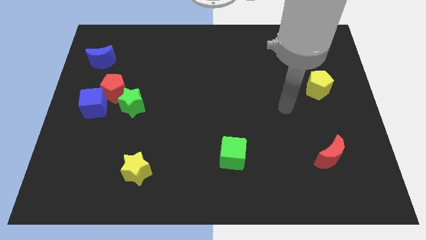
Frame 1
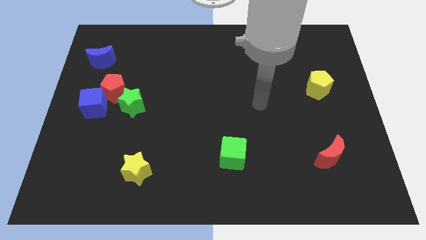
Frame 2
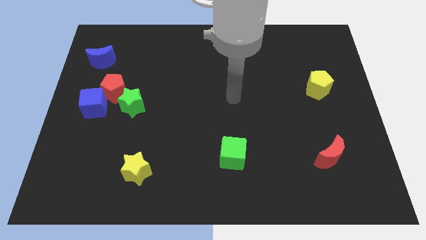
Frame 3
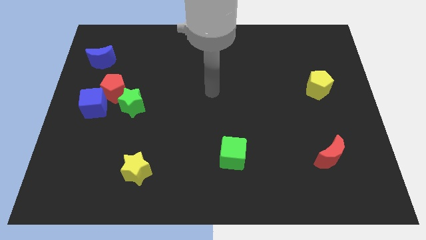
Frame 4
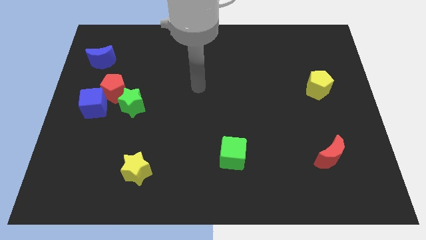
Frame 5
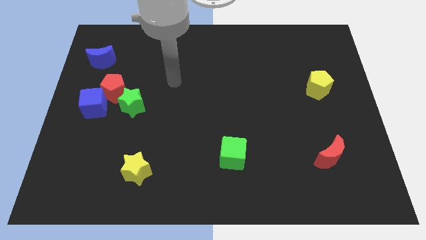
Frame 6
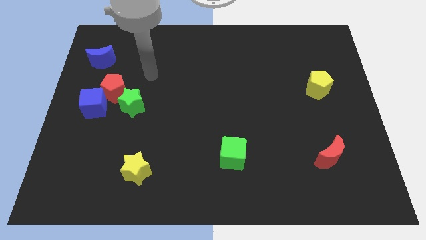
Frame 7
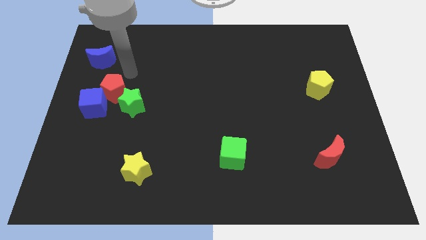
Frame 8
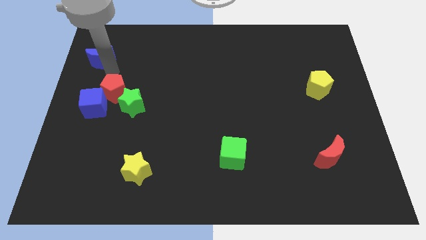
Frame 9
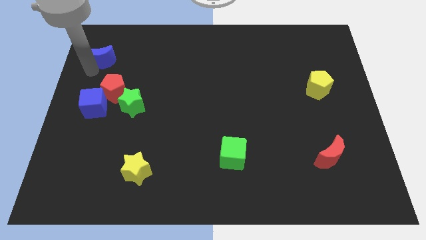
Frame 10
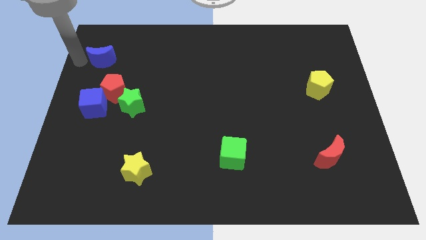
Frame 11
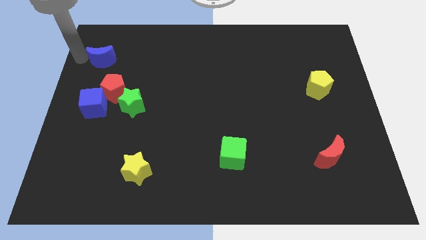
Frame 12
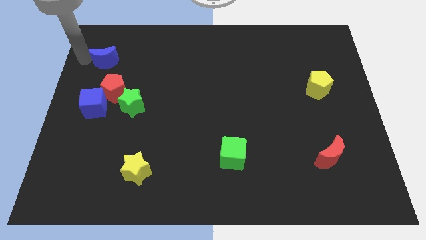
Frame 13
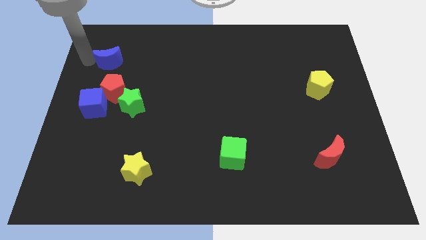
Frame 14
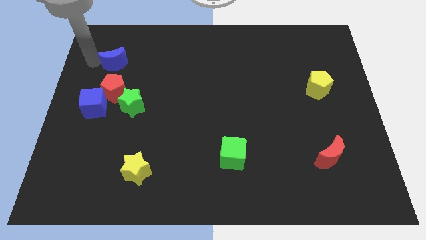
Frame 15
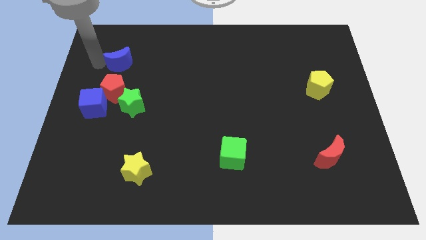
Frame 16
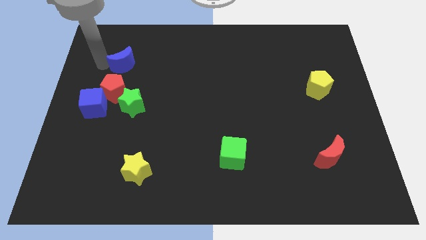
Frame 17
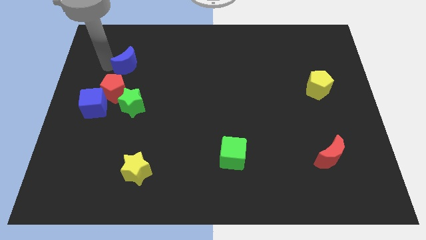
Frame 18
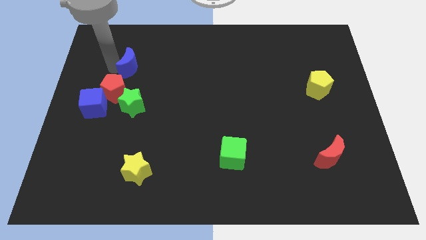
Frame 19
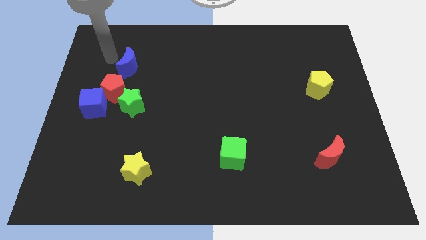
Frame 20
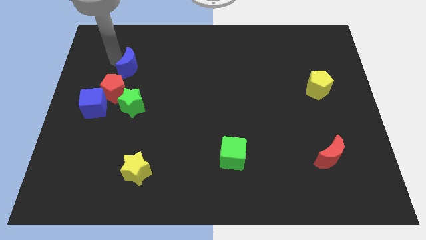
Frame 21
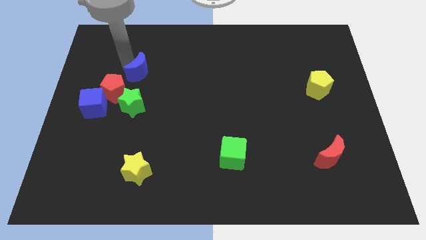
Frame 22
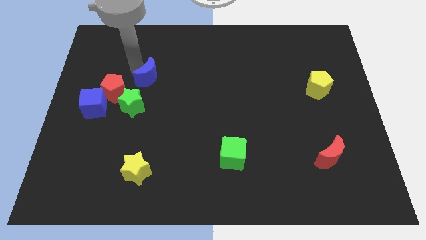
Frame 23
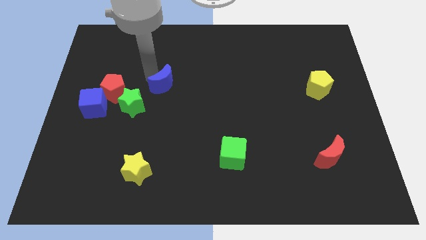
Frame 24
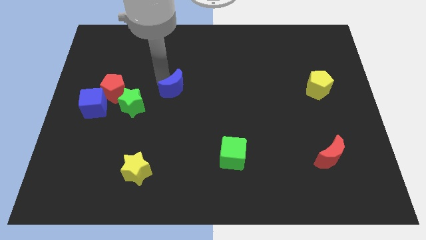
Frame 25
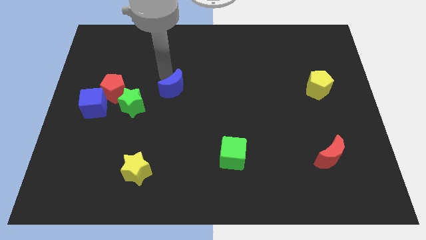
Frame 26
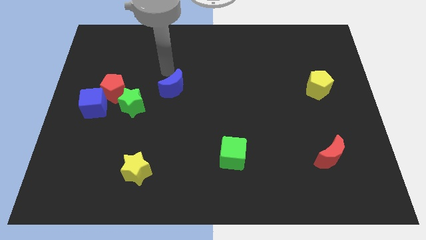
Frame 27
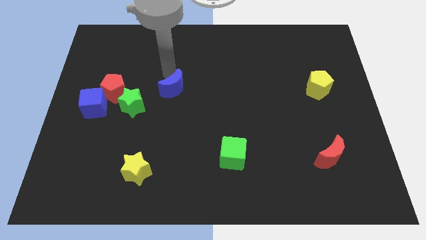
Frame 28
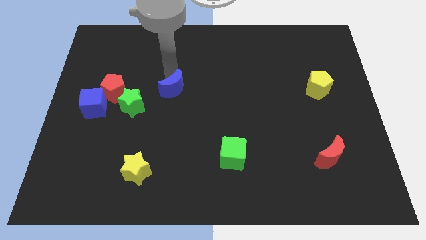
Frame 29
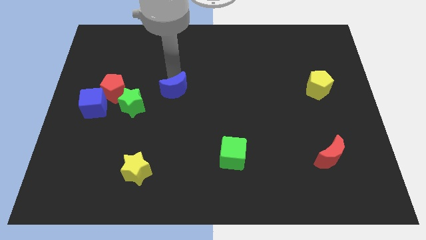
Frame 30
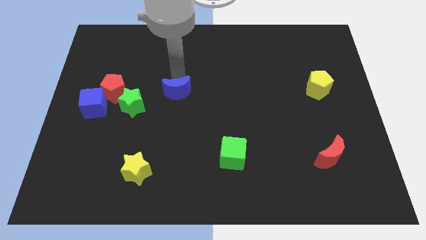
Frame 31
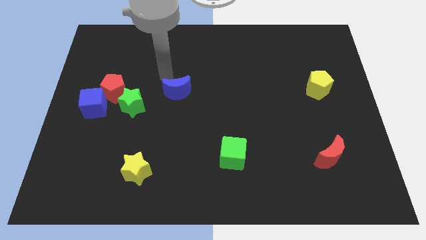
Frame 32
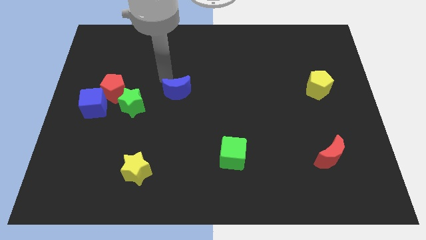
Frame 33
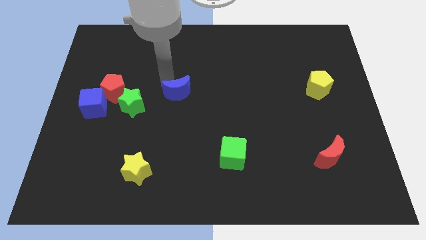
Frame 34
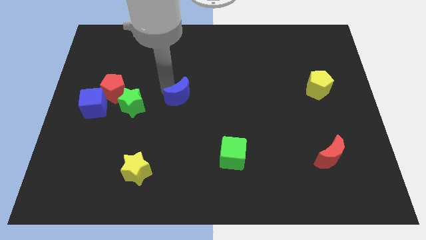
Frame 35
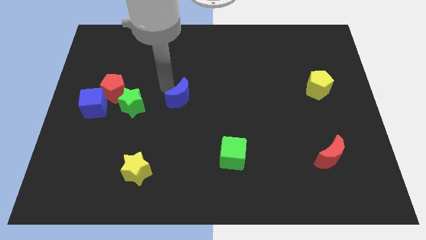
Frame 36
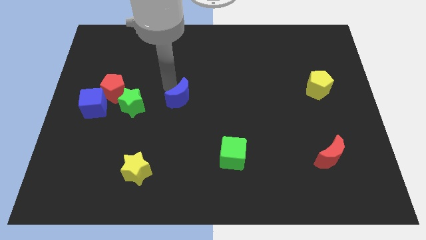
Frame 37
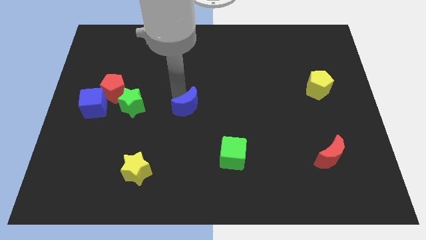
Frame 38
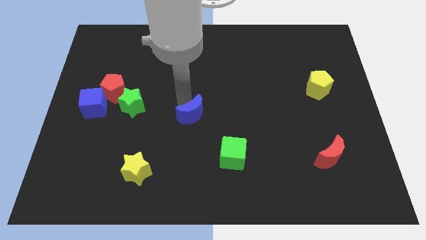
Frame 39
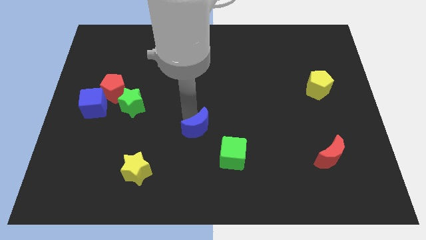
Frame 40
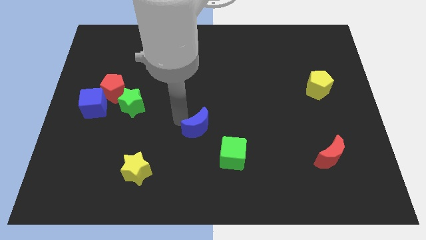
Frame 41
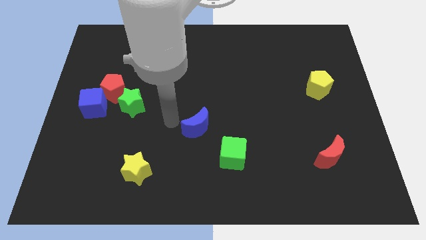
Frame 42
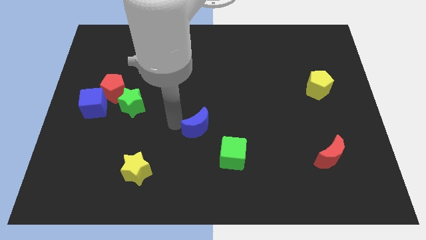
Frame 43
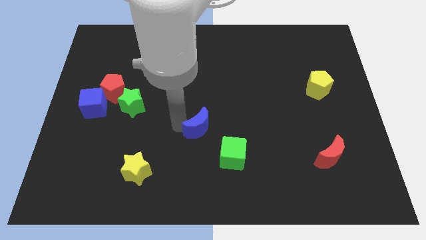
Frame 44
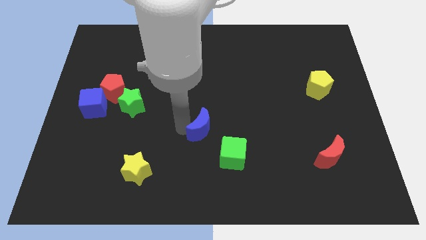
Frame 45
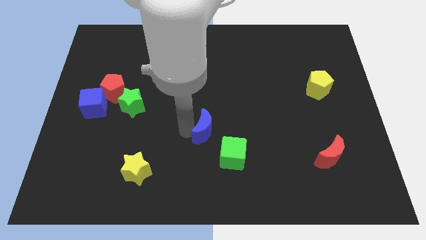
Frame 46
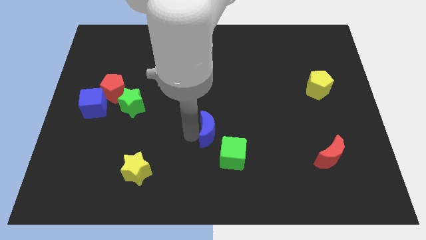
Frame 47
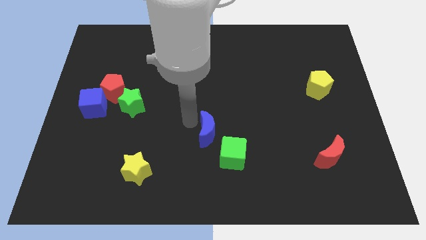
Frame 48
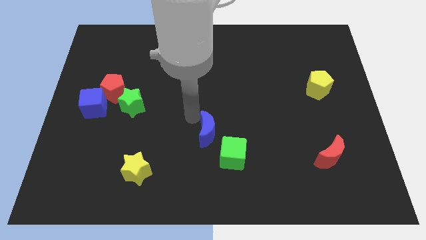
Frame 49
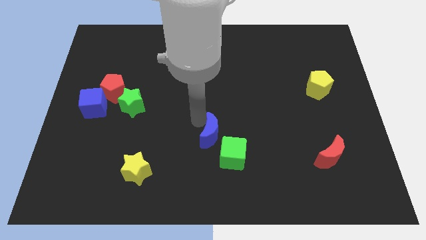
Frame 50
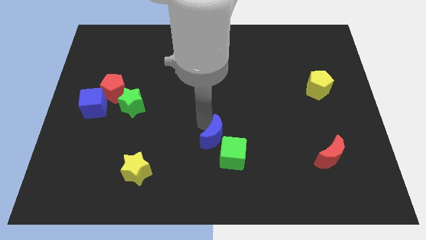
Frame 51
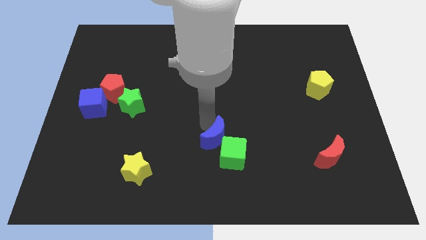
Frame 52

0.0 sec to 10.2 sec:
slide the blue moon to the green cube

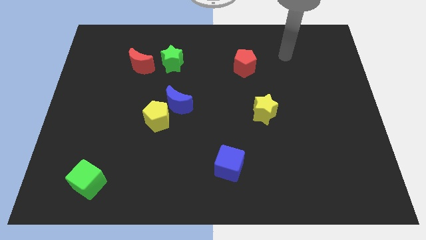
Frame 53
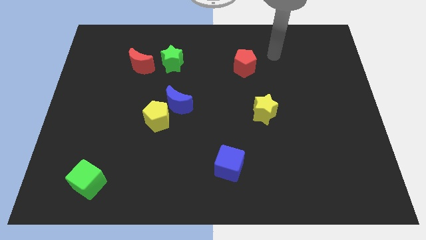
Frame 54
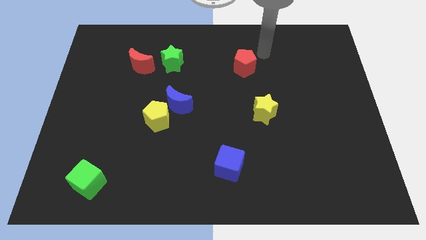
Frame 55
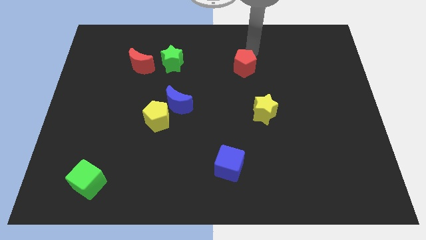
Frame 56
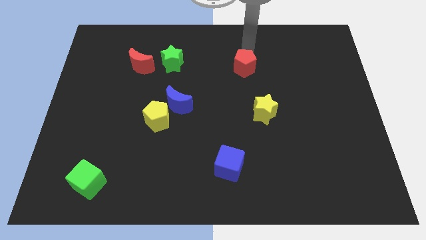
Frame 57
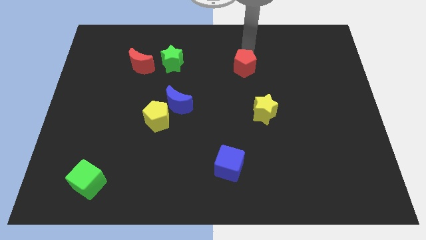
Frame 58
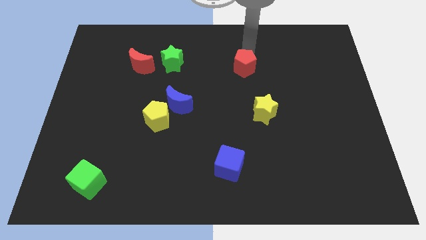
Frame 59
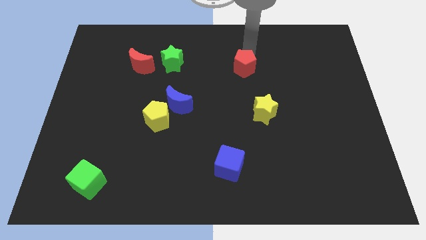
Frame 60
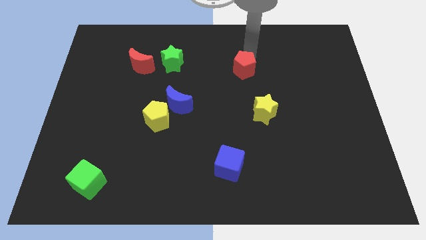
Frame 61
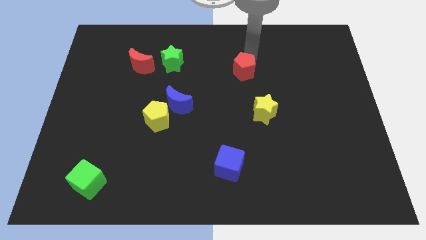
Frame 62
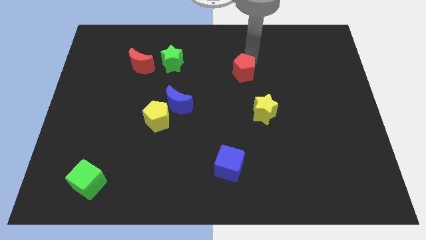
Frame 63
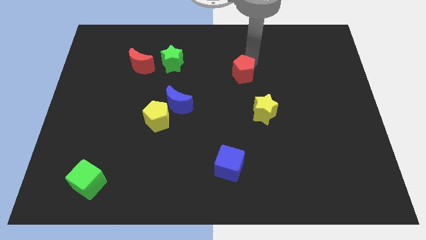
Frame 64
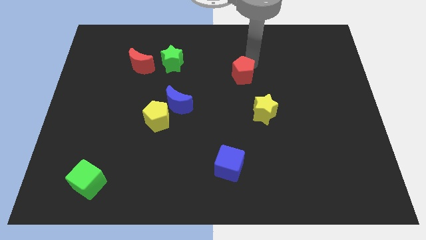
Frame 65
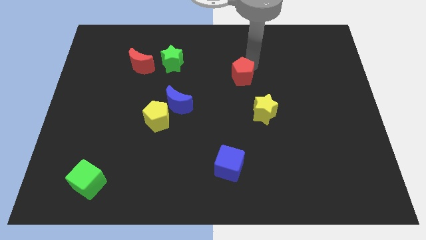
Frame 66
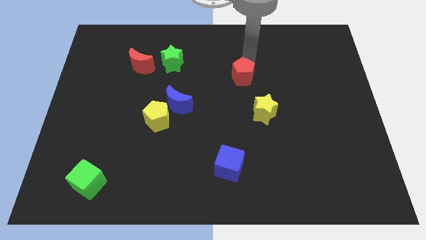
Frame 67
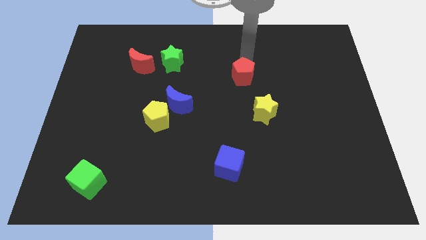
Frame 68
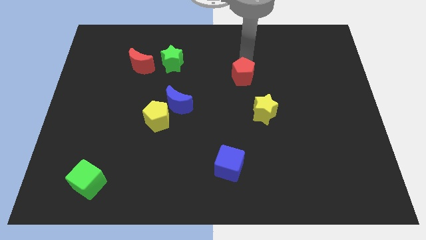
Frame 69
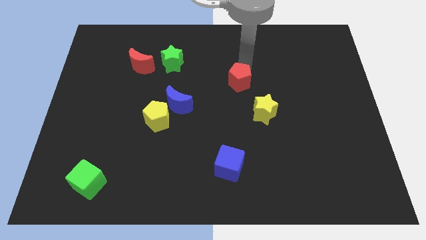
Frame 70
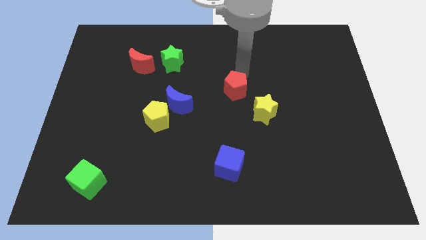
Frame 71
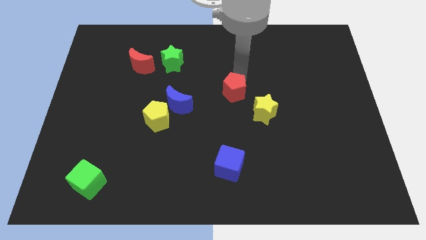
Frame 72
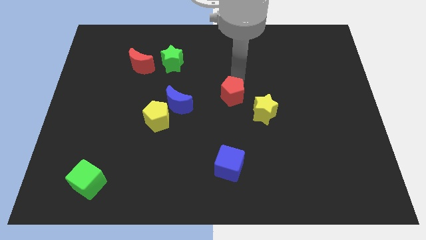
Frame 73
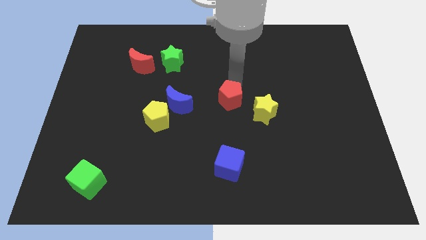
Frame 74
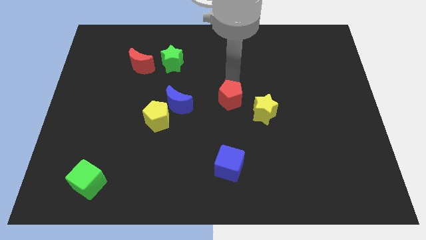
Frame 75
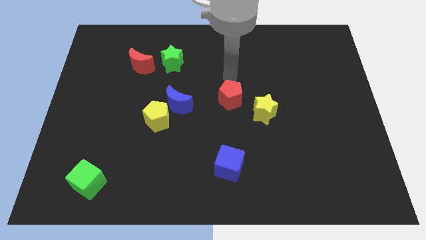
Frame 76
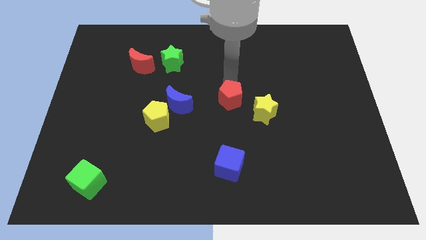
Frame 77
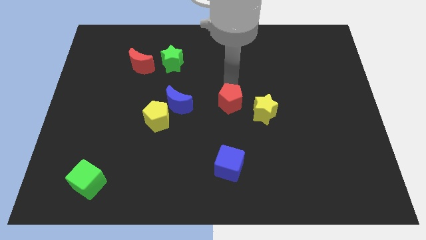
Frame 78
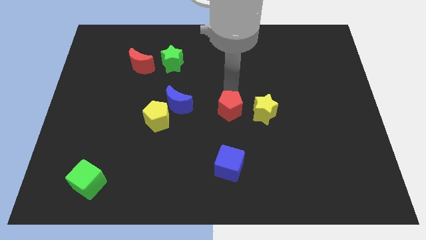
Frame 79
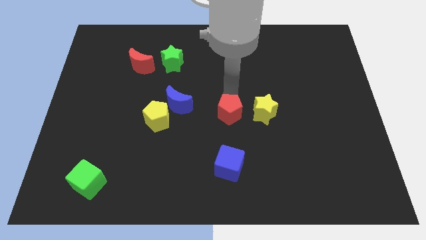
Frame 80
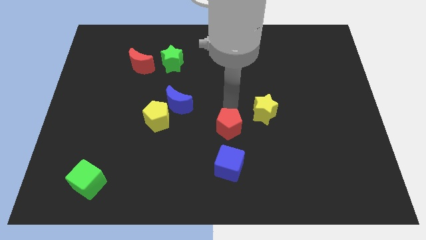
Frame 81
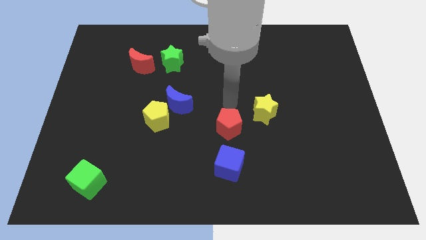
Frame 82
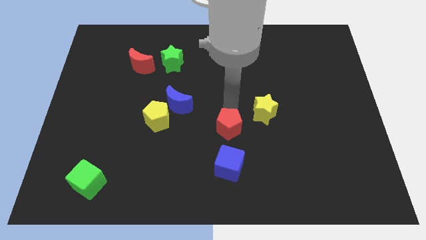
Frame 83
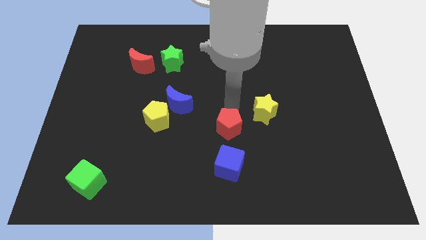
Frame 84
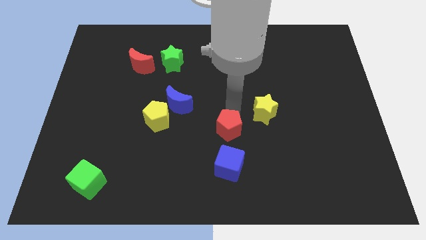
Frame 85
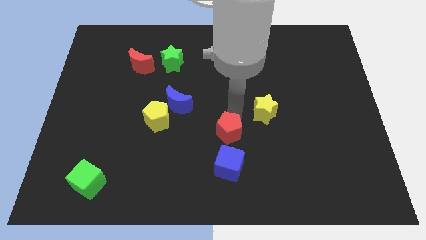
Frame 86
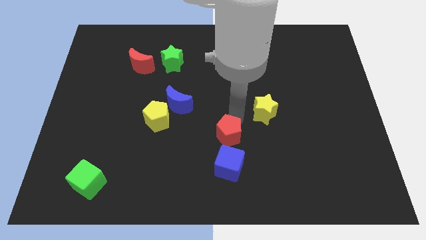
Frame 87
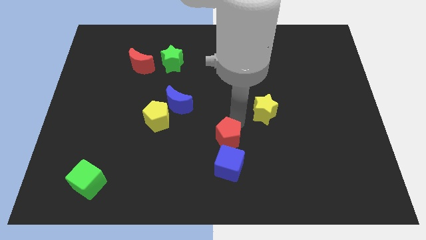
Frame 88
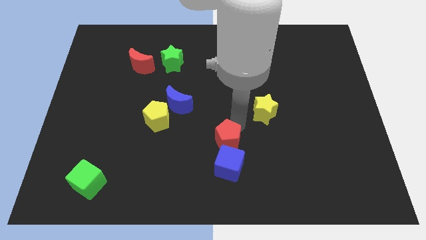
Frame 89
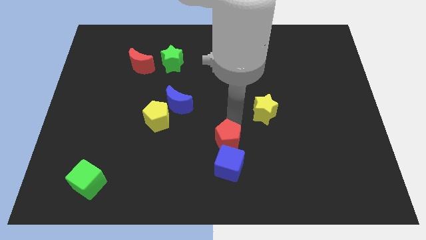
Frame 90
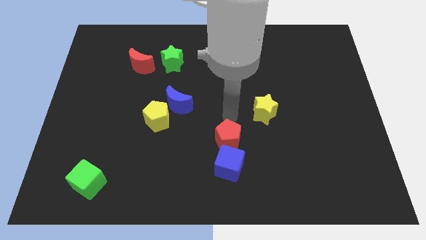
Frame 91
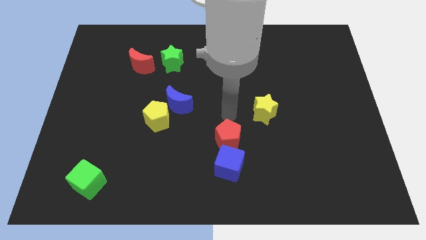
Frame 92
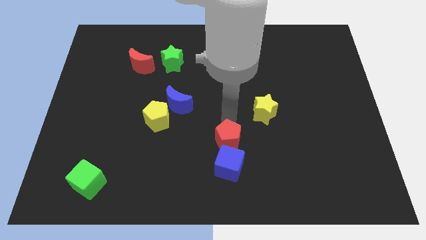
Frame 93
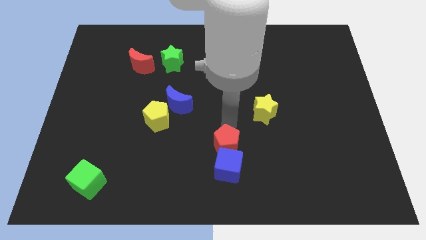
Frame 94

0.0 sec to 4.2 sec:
push the red pentagon towards the blue cube
